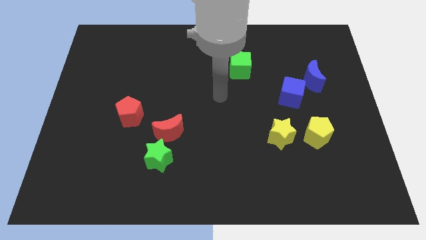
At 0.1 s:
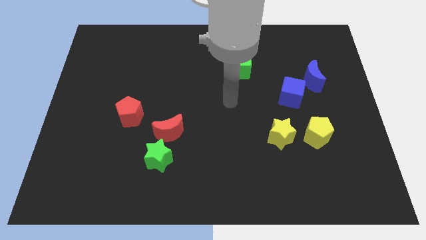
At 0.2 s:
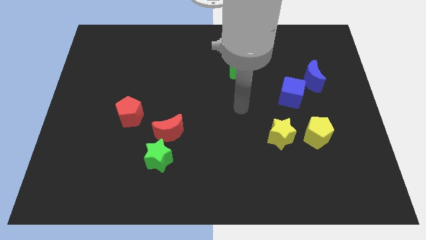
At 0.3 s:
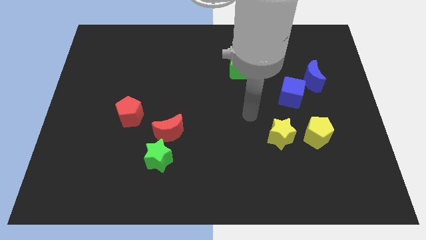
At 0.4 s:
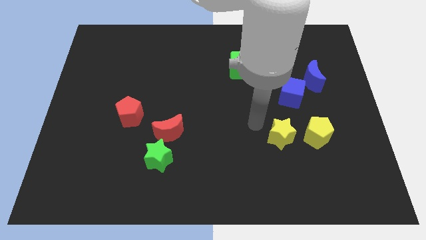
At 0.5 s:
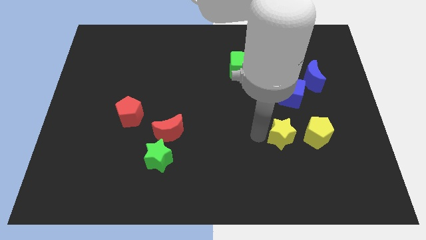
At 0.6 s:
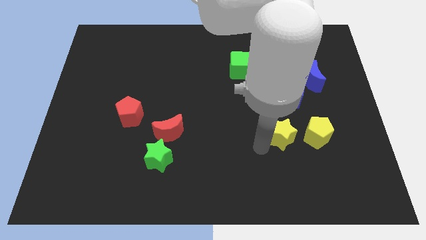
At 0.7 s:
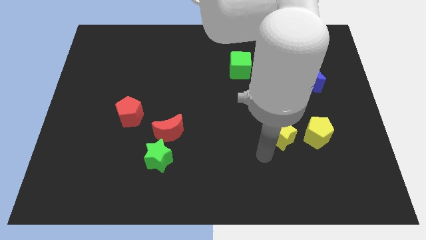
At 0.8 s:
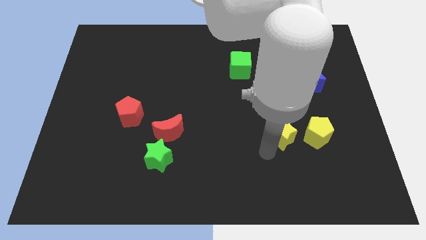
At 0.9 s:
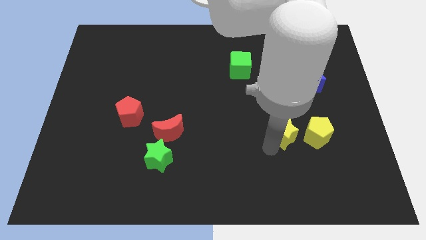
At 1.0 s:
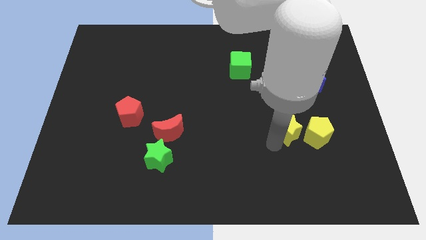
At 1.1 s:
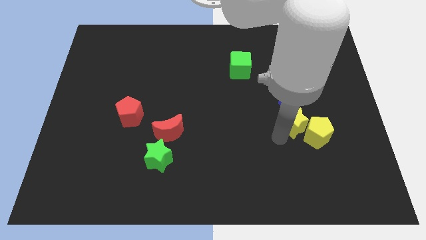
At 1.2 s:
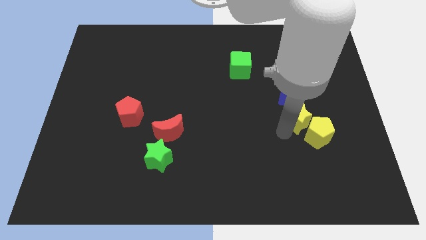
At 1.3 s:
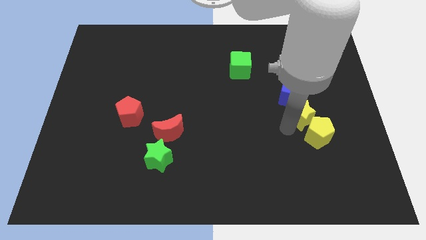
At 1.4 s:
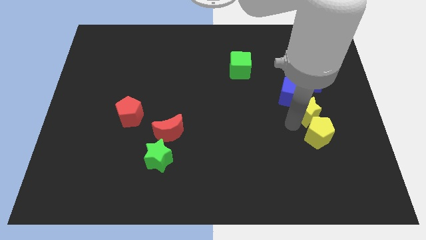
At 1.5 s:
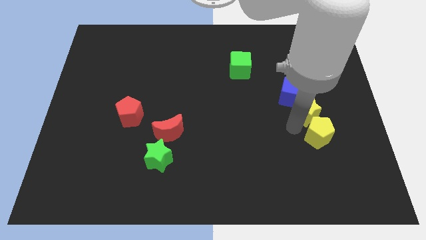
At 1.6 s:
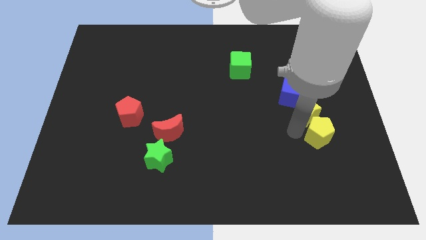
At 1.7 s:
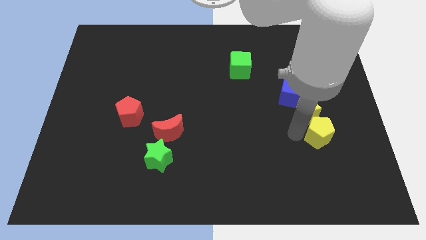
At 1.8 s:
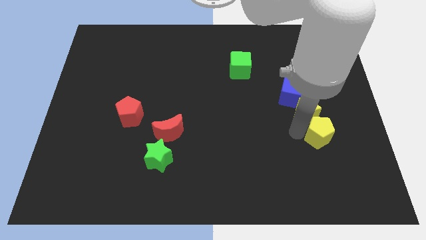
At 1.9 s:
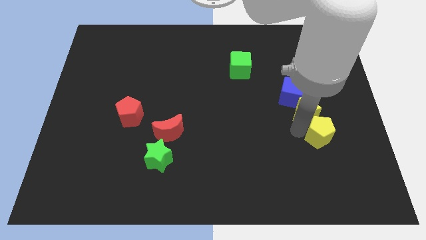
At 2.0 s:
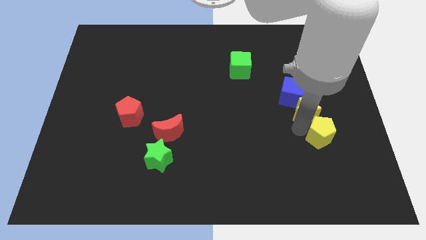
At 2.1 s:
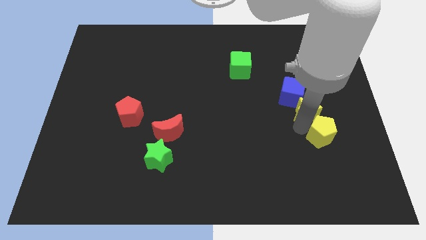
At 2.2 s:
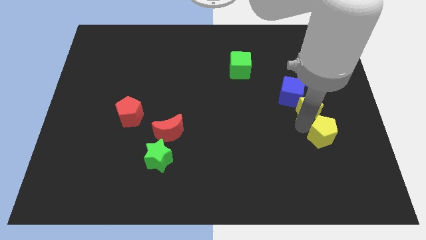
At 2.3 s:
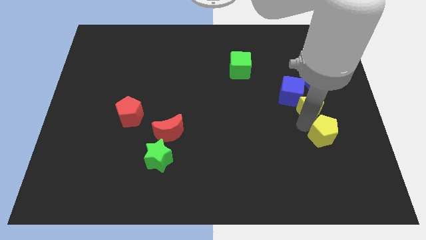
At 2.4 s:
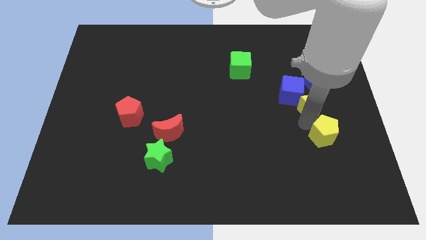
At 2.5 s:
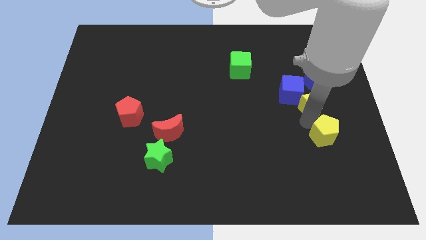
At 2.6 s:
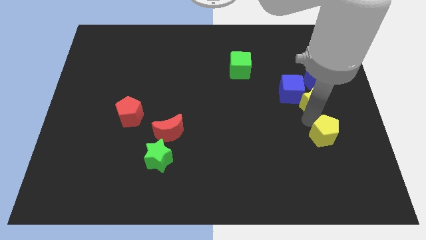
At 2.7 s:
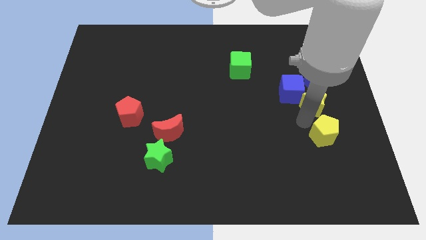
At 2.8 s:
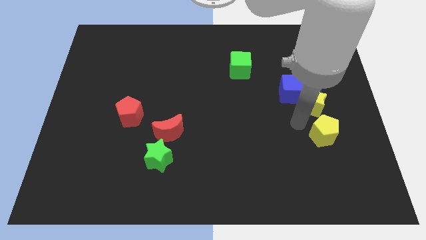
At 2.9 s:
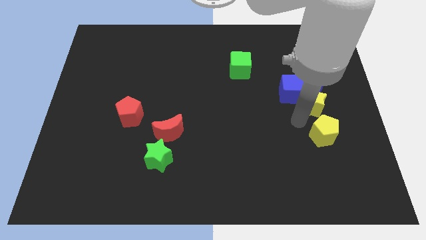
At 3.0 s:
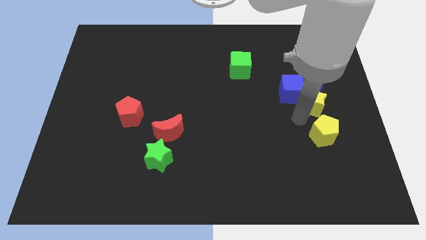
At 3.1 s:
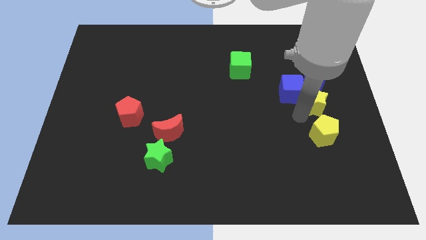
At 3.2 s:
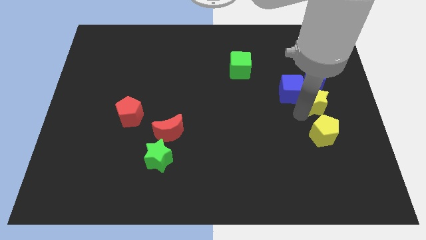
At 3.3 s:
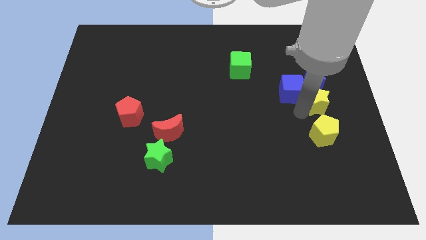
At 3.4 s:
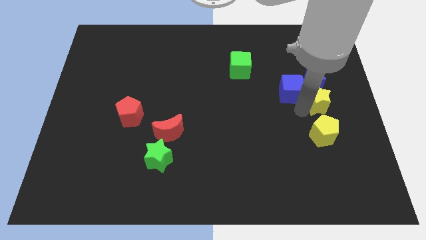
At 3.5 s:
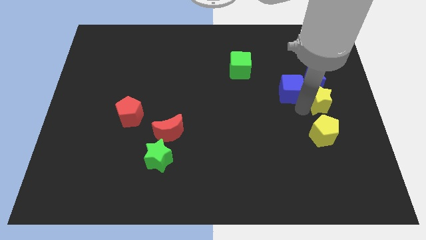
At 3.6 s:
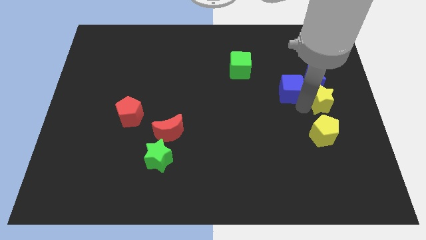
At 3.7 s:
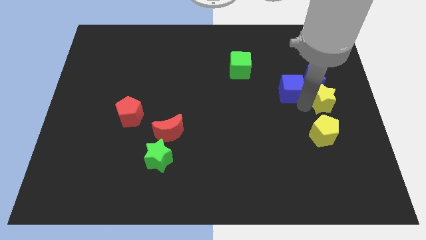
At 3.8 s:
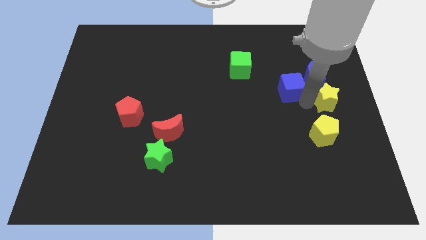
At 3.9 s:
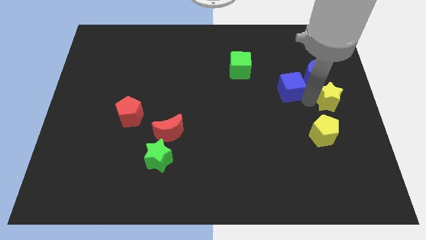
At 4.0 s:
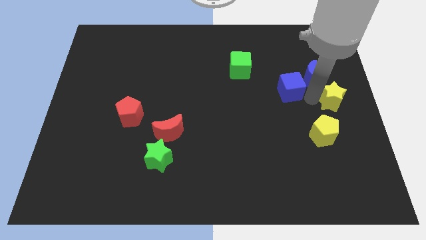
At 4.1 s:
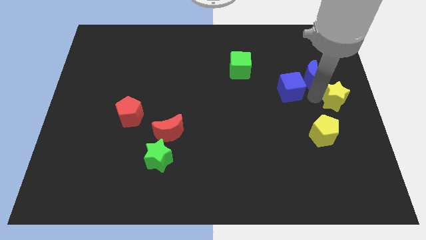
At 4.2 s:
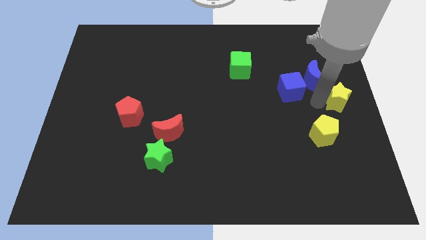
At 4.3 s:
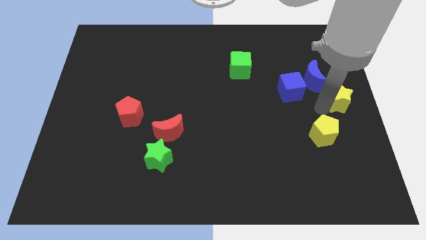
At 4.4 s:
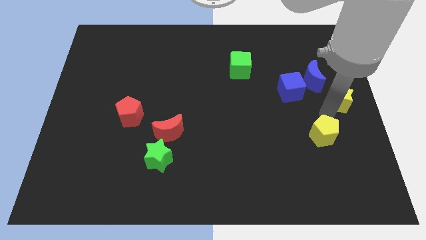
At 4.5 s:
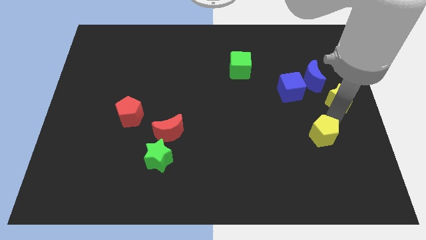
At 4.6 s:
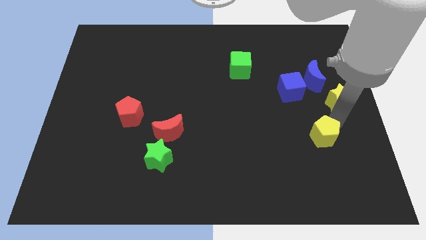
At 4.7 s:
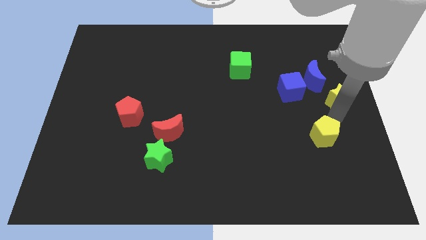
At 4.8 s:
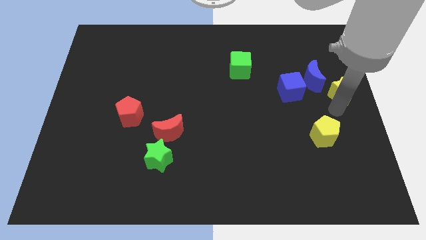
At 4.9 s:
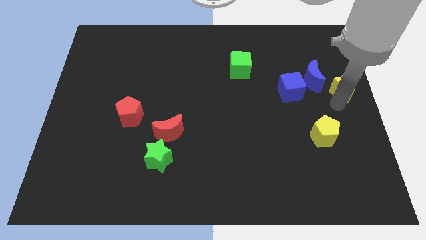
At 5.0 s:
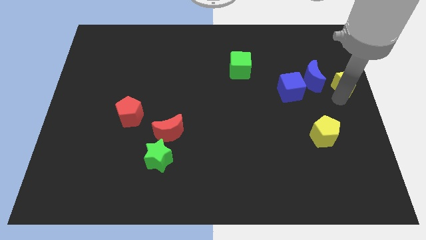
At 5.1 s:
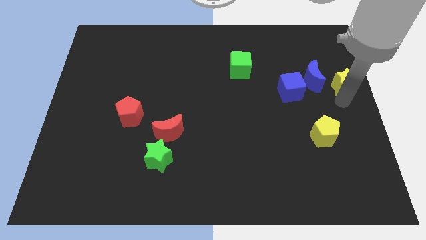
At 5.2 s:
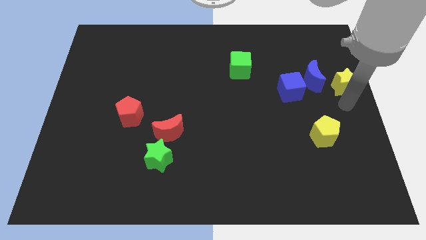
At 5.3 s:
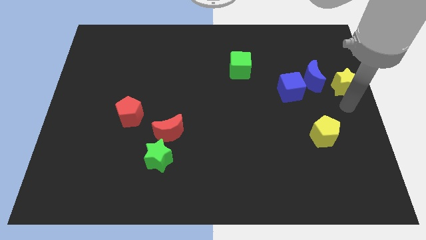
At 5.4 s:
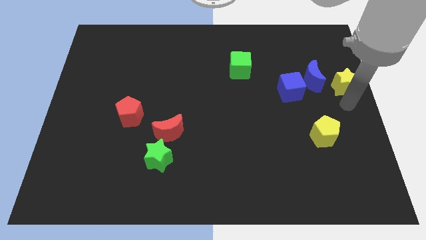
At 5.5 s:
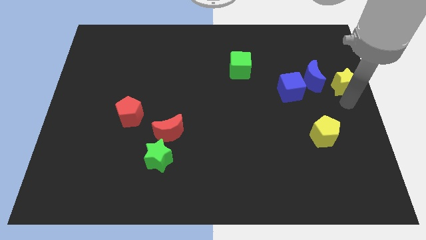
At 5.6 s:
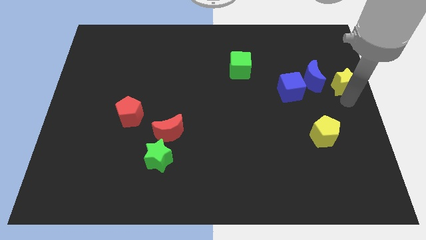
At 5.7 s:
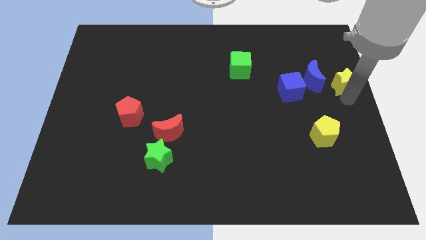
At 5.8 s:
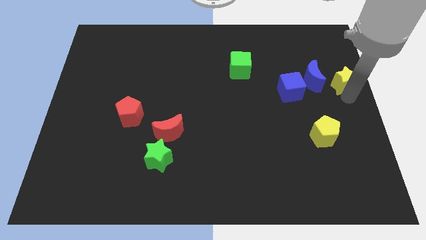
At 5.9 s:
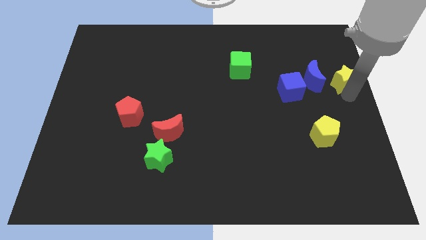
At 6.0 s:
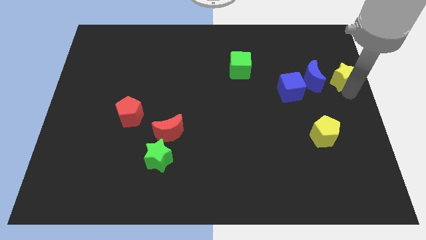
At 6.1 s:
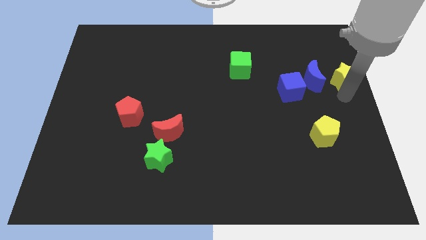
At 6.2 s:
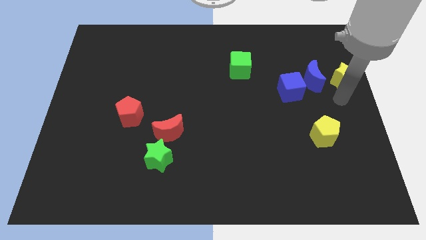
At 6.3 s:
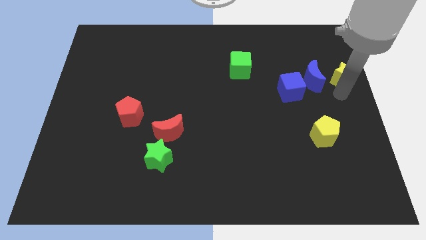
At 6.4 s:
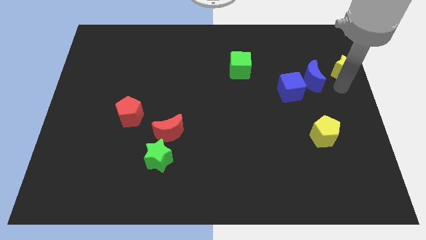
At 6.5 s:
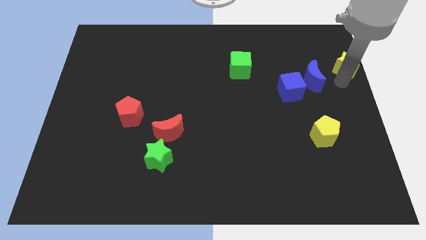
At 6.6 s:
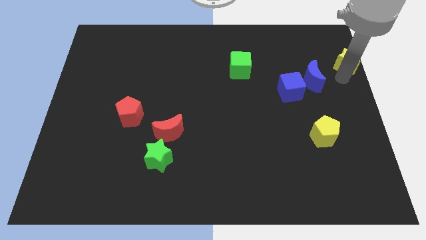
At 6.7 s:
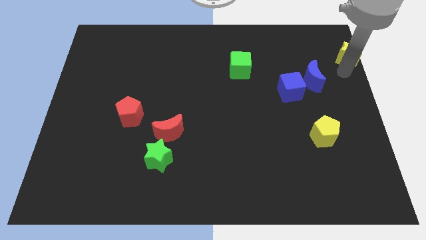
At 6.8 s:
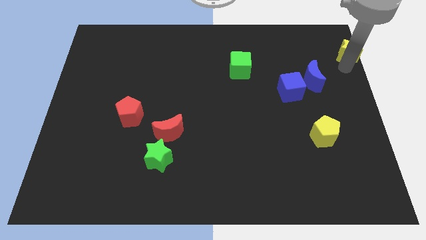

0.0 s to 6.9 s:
move the yellow star to the top right
